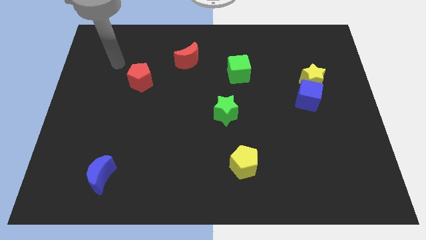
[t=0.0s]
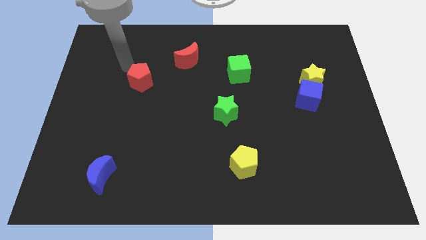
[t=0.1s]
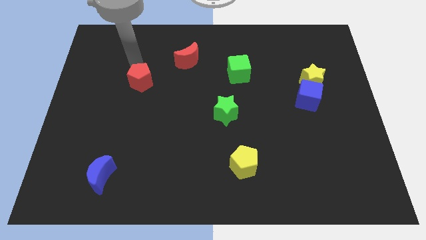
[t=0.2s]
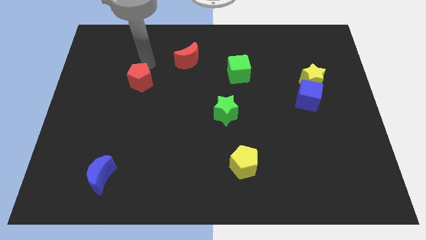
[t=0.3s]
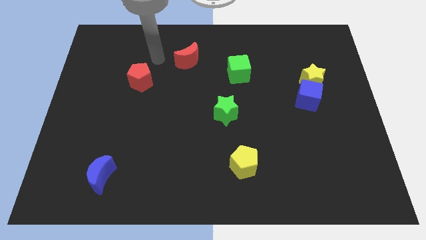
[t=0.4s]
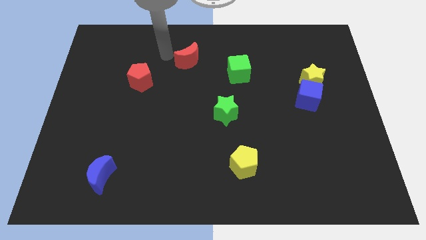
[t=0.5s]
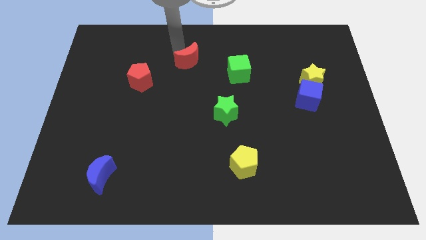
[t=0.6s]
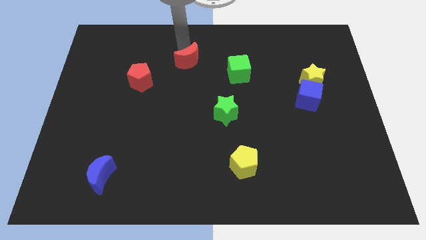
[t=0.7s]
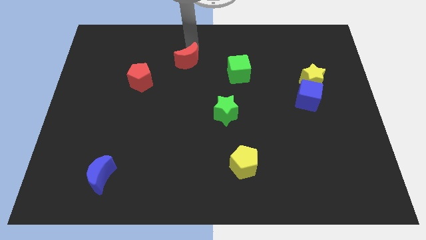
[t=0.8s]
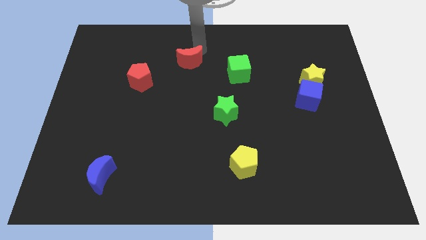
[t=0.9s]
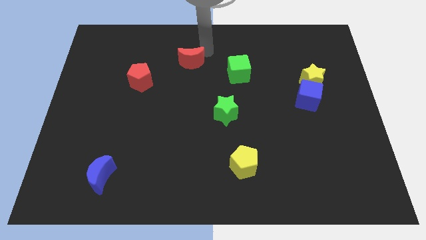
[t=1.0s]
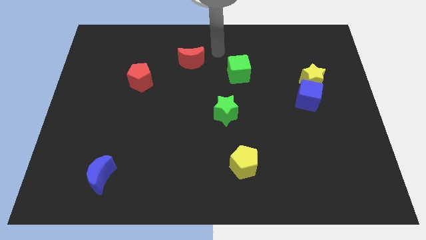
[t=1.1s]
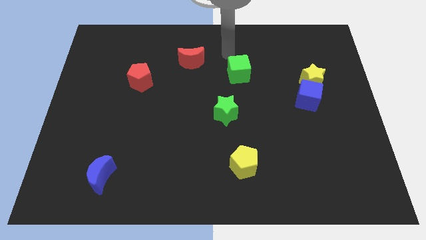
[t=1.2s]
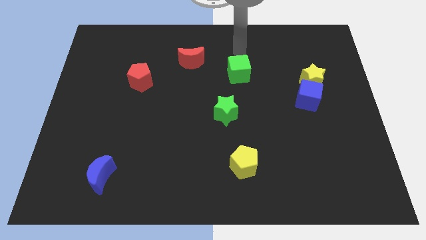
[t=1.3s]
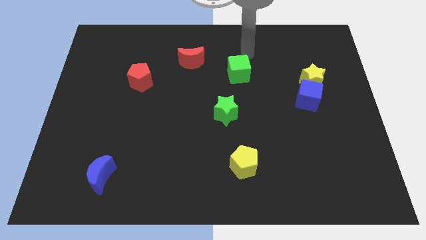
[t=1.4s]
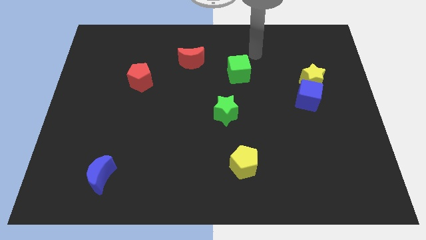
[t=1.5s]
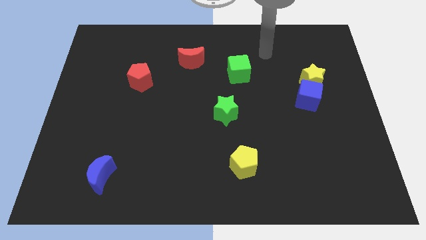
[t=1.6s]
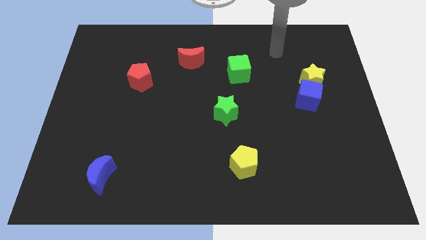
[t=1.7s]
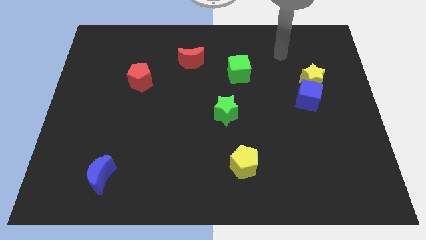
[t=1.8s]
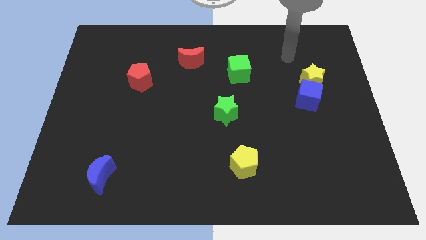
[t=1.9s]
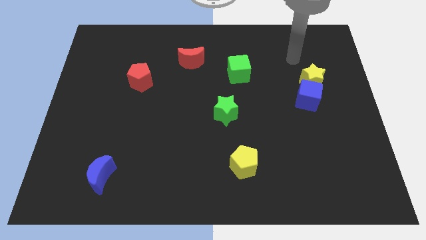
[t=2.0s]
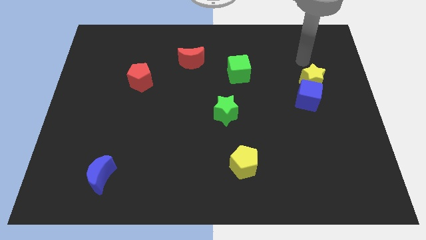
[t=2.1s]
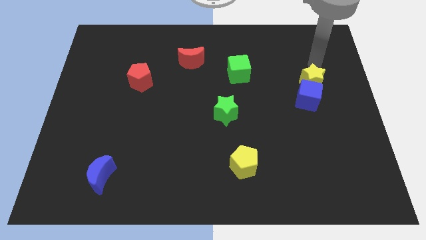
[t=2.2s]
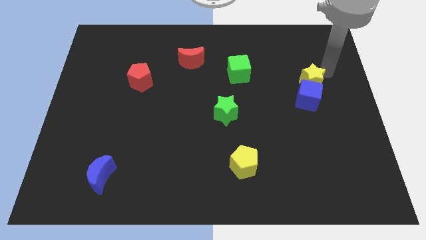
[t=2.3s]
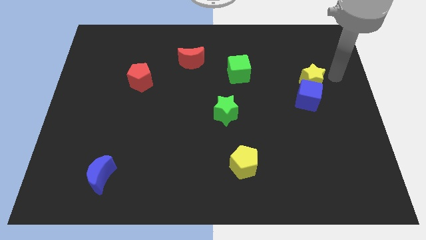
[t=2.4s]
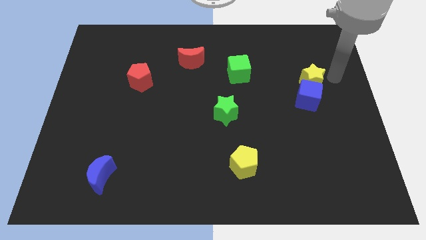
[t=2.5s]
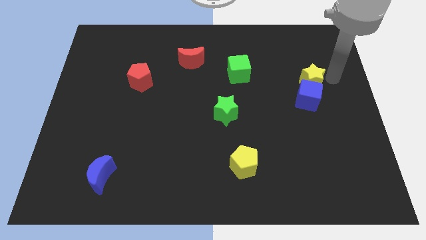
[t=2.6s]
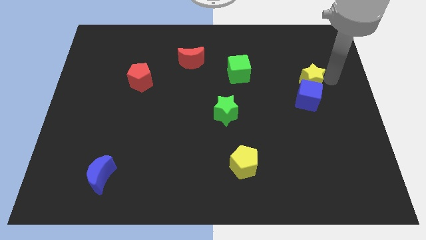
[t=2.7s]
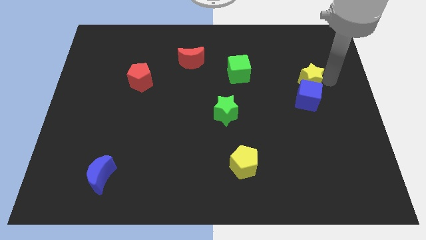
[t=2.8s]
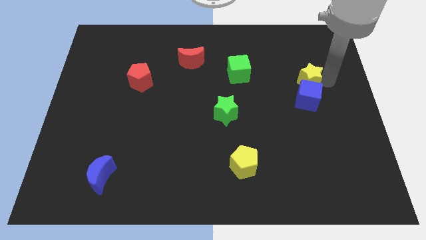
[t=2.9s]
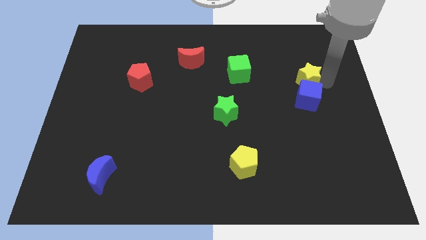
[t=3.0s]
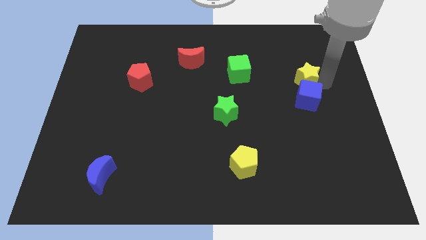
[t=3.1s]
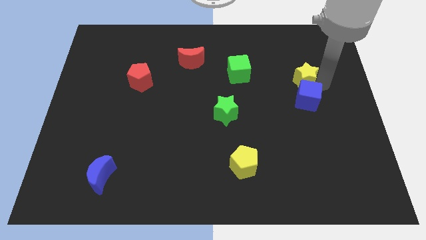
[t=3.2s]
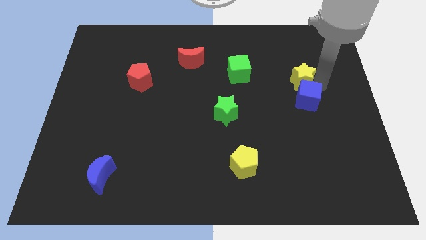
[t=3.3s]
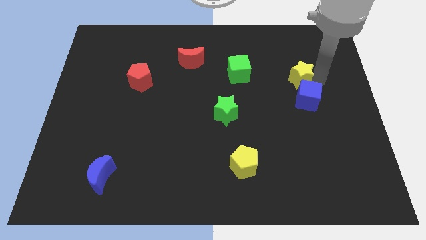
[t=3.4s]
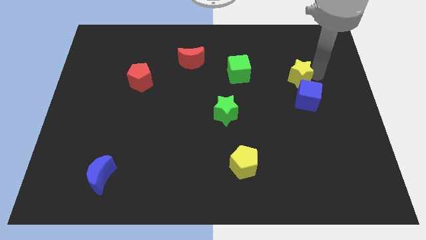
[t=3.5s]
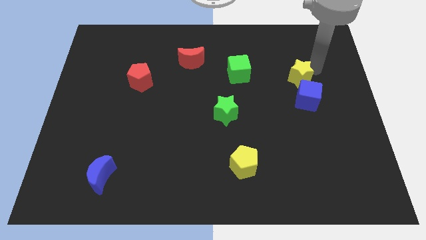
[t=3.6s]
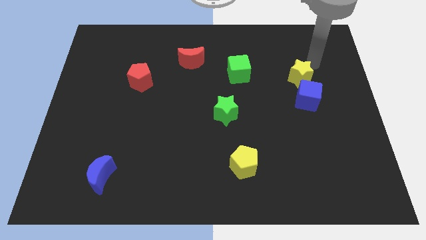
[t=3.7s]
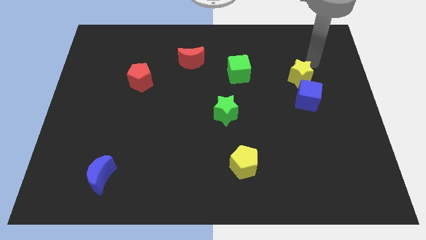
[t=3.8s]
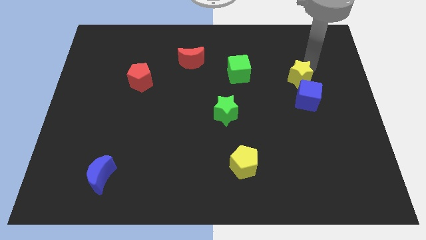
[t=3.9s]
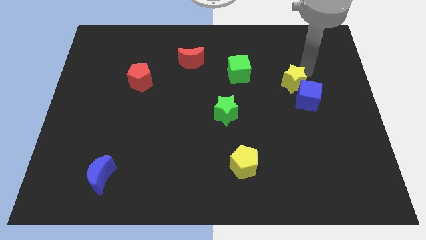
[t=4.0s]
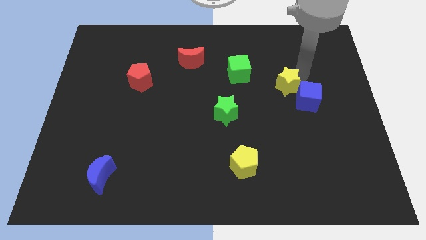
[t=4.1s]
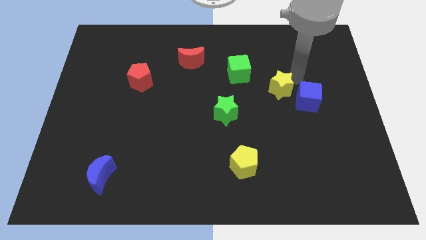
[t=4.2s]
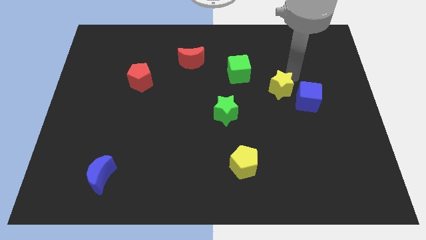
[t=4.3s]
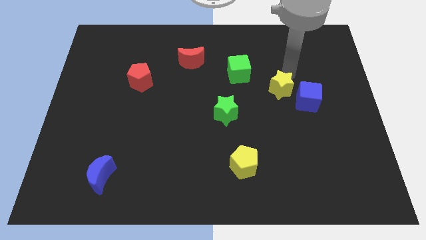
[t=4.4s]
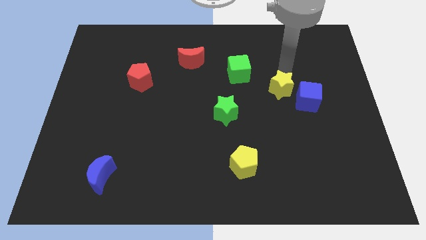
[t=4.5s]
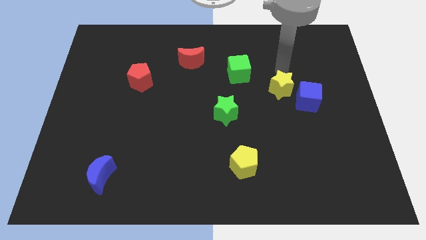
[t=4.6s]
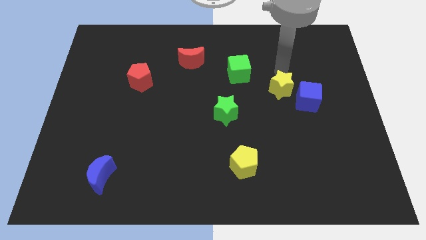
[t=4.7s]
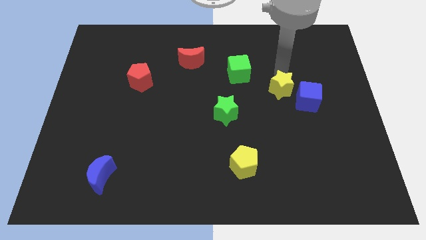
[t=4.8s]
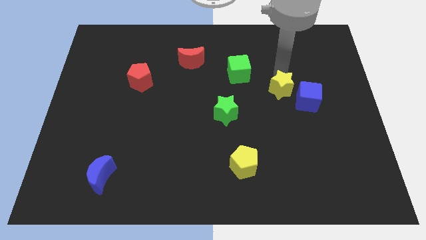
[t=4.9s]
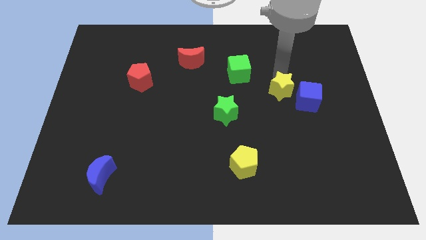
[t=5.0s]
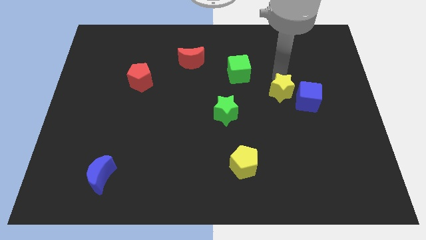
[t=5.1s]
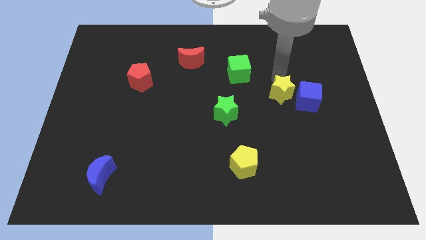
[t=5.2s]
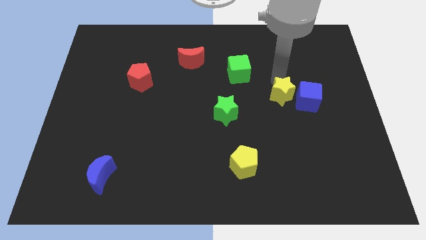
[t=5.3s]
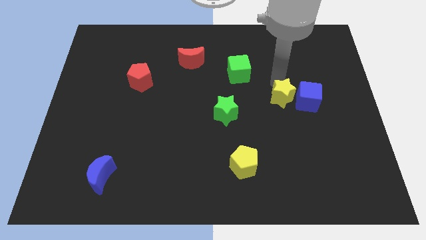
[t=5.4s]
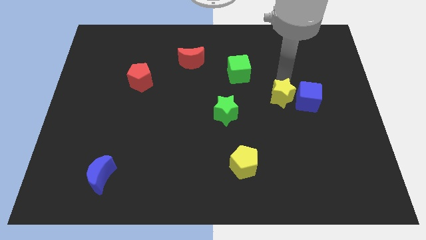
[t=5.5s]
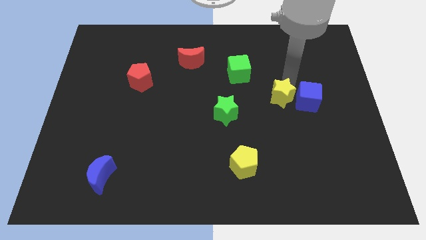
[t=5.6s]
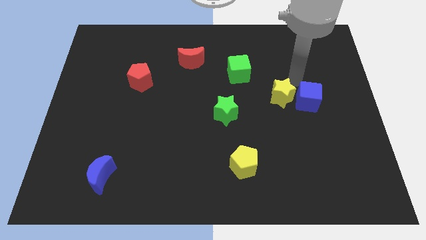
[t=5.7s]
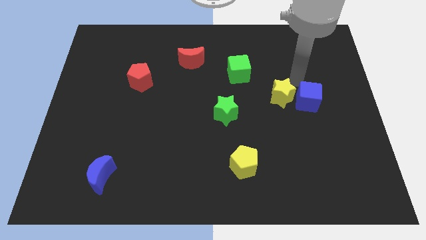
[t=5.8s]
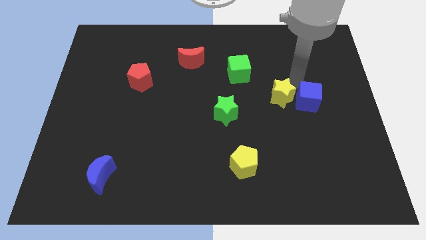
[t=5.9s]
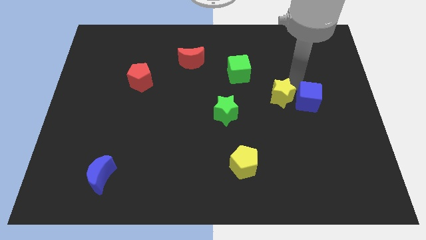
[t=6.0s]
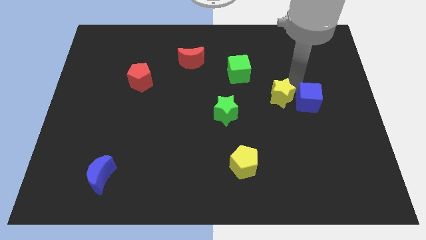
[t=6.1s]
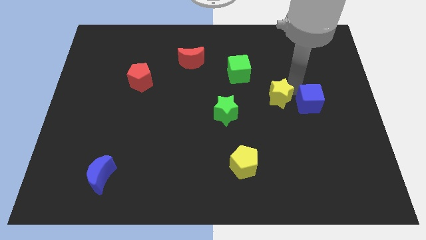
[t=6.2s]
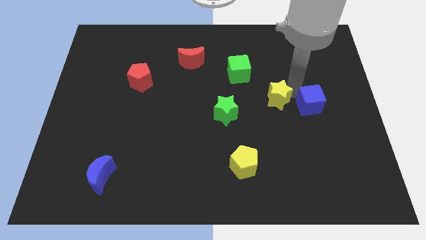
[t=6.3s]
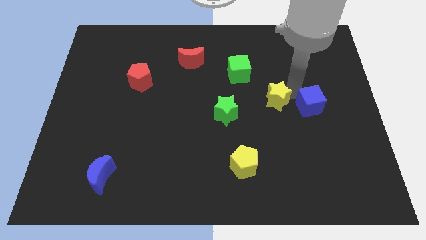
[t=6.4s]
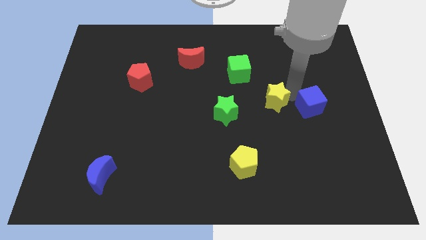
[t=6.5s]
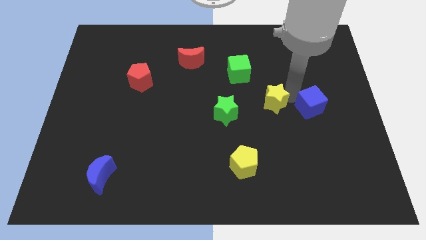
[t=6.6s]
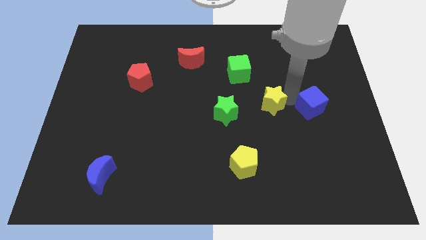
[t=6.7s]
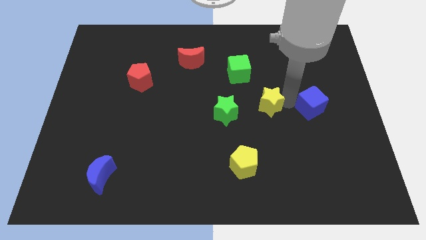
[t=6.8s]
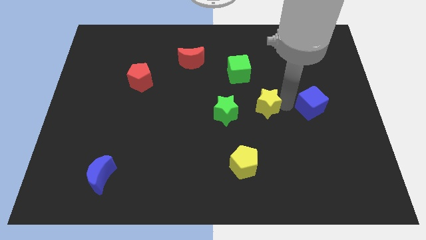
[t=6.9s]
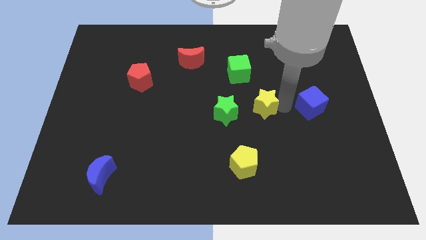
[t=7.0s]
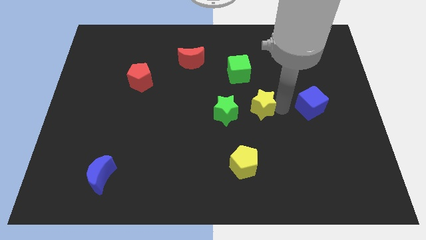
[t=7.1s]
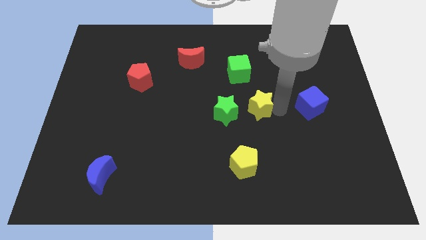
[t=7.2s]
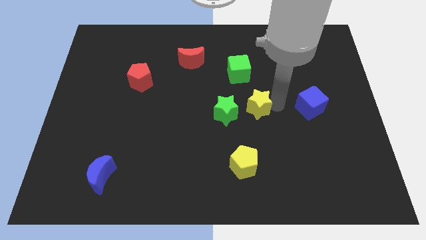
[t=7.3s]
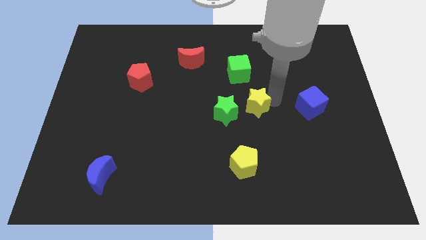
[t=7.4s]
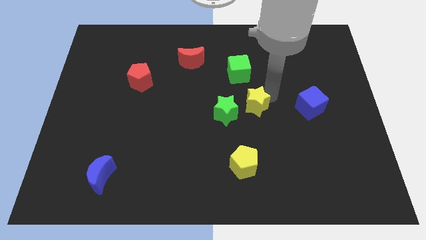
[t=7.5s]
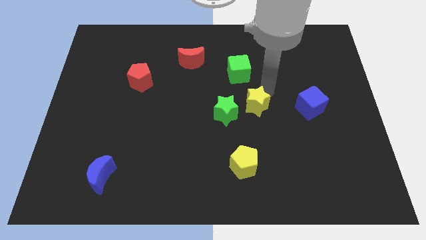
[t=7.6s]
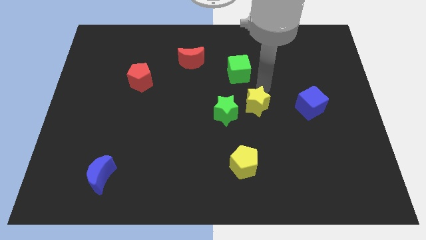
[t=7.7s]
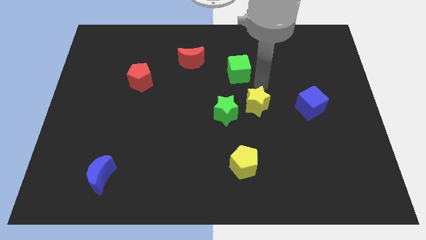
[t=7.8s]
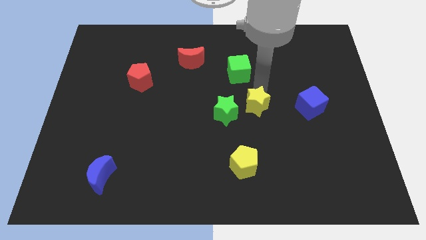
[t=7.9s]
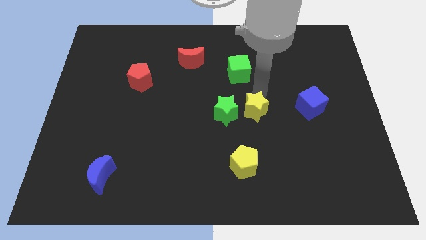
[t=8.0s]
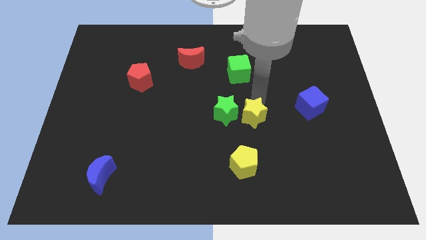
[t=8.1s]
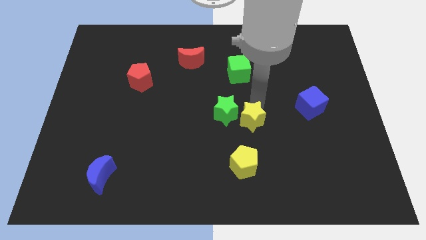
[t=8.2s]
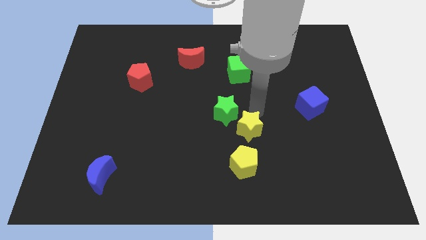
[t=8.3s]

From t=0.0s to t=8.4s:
push the yellow star downwards and then left
